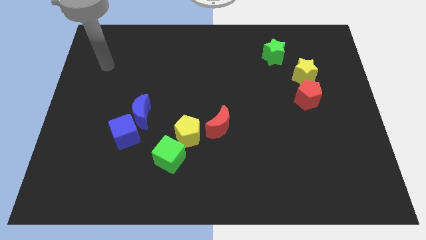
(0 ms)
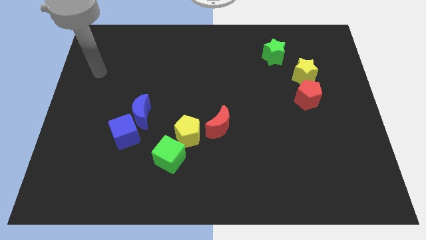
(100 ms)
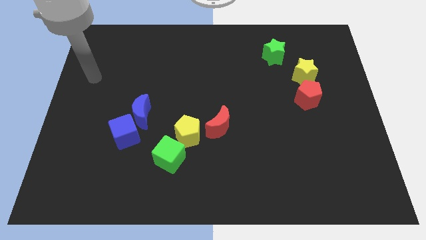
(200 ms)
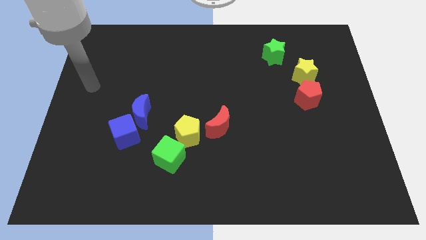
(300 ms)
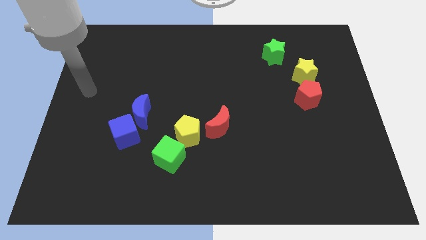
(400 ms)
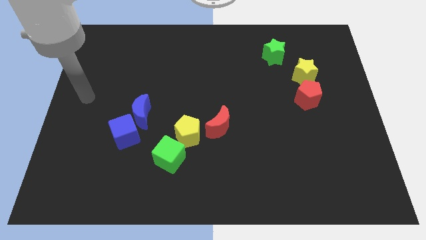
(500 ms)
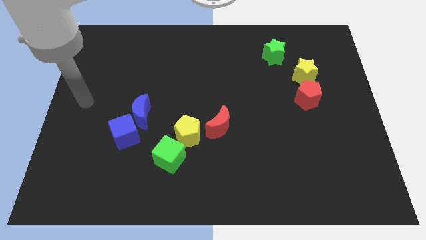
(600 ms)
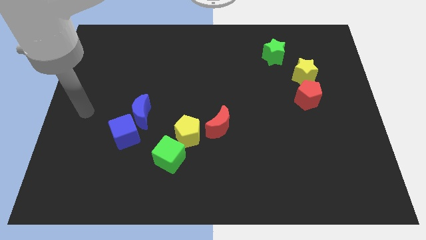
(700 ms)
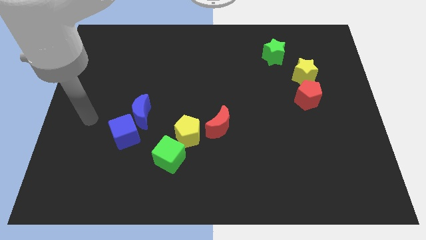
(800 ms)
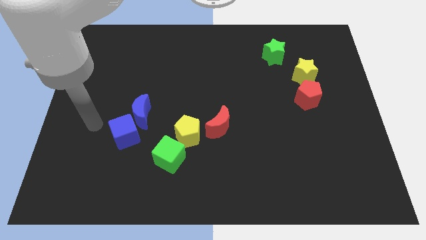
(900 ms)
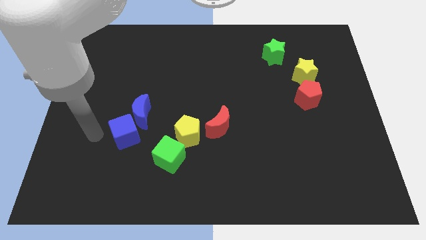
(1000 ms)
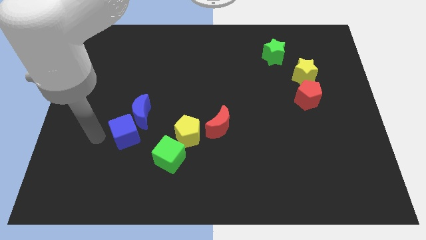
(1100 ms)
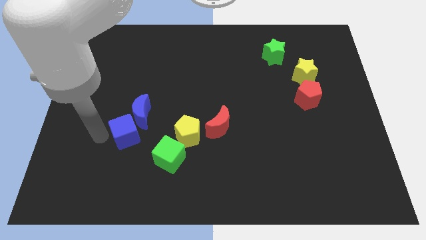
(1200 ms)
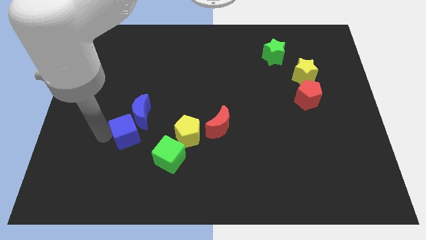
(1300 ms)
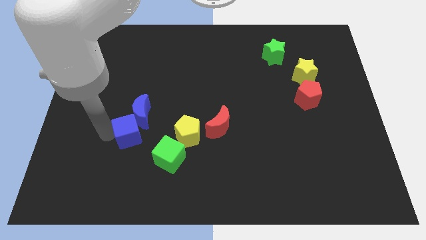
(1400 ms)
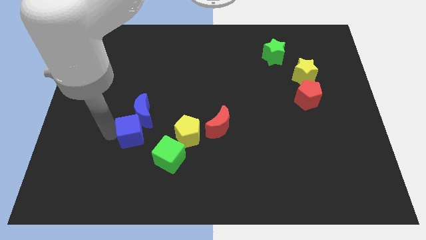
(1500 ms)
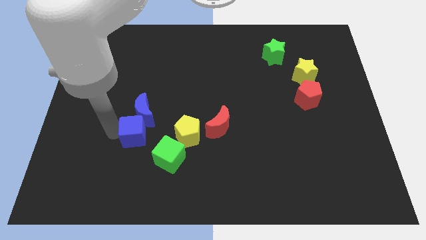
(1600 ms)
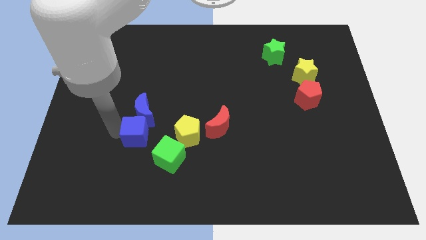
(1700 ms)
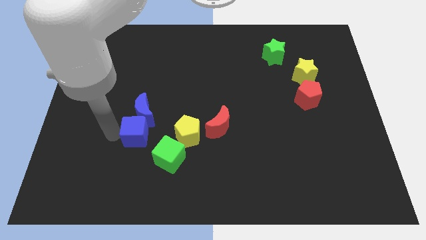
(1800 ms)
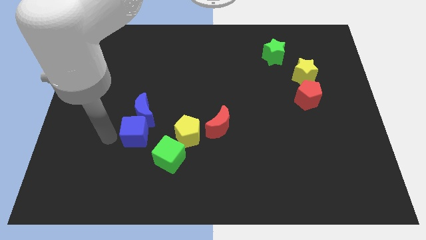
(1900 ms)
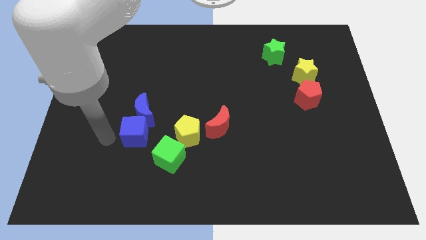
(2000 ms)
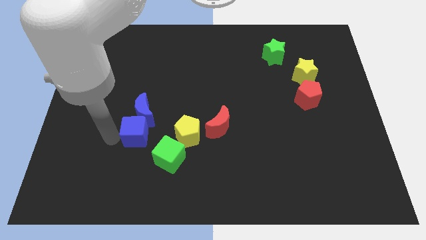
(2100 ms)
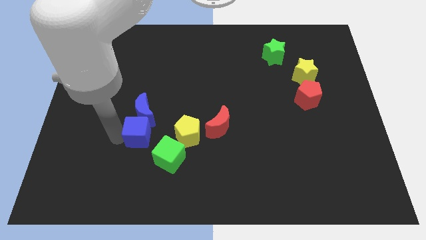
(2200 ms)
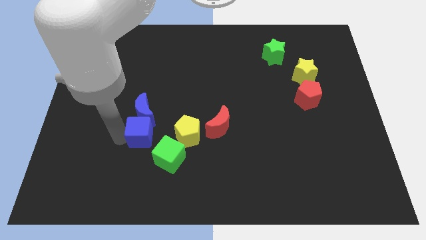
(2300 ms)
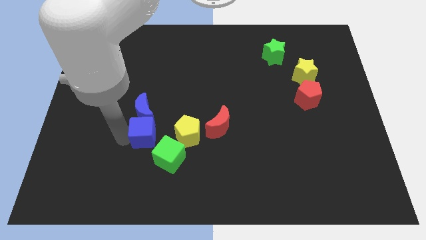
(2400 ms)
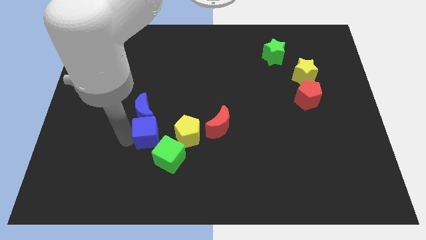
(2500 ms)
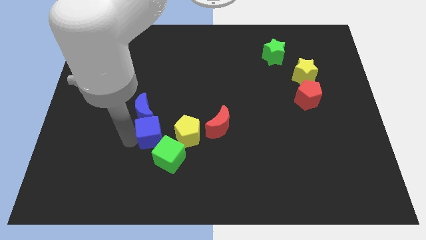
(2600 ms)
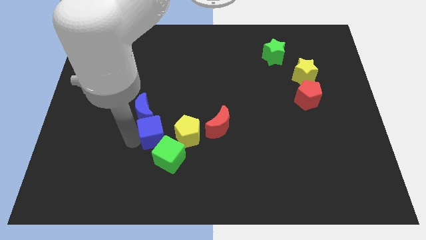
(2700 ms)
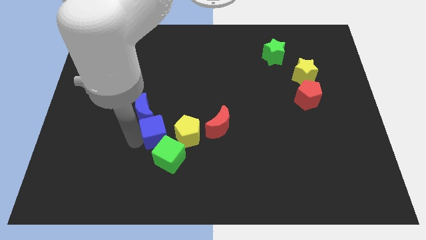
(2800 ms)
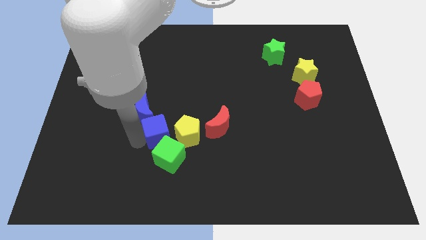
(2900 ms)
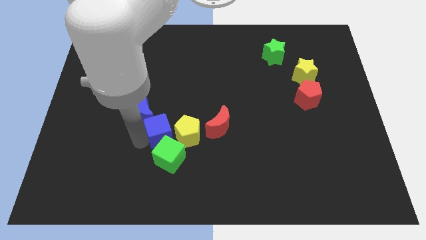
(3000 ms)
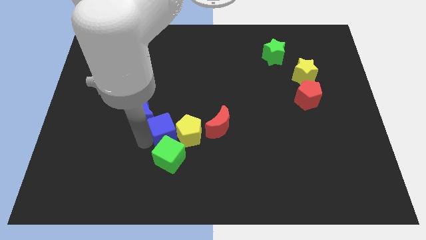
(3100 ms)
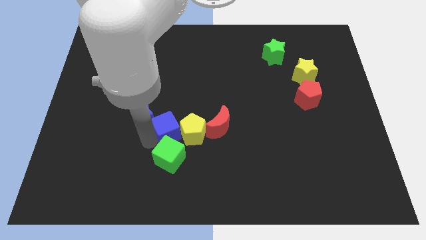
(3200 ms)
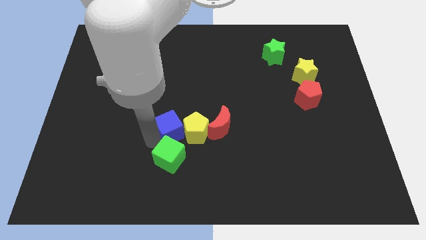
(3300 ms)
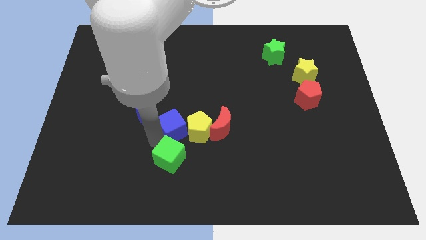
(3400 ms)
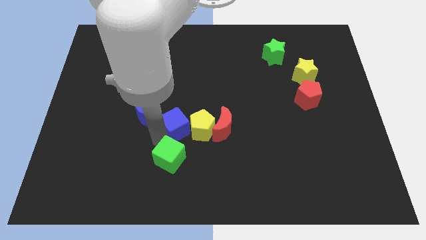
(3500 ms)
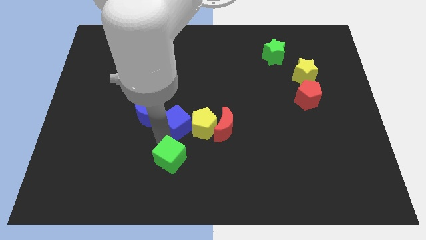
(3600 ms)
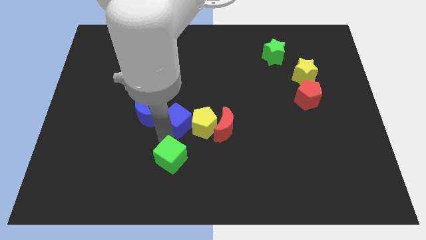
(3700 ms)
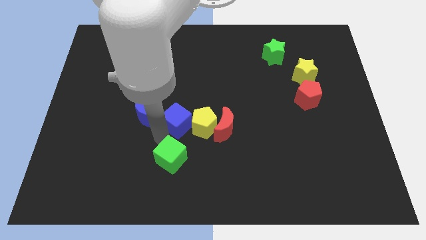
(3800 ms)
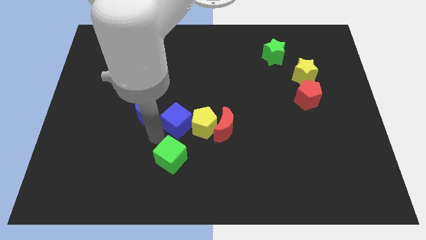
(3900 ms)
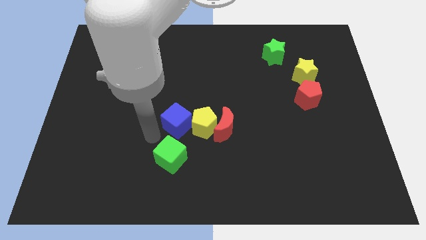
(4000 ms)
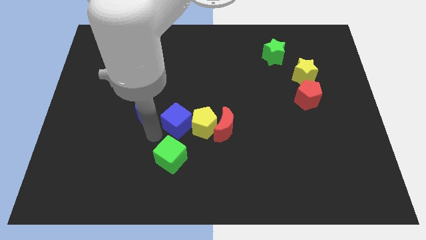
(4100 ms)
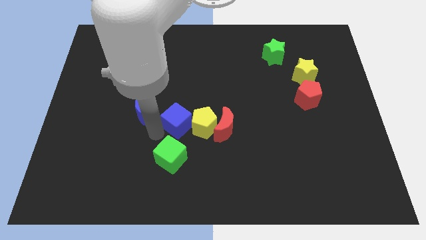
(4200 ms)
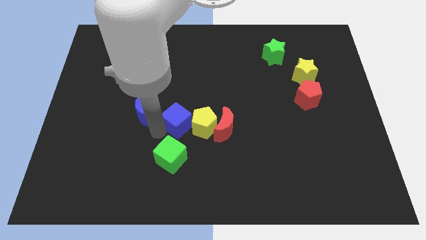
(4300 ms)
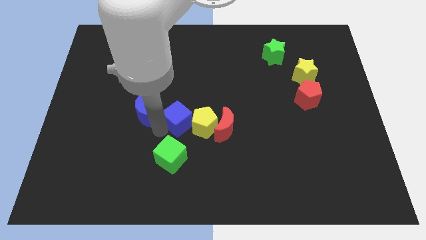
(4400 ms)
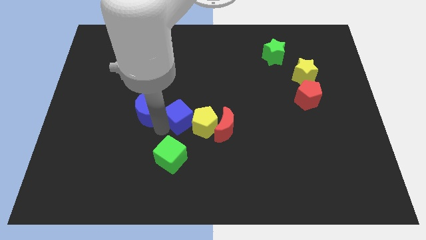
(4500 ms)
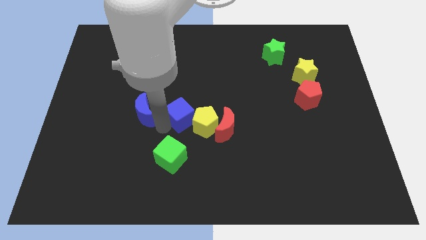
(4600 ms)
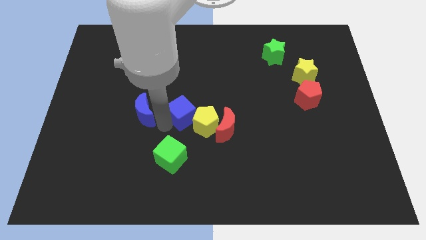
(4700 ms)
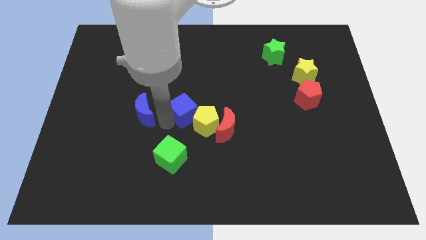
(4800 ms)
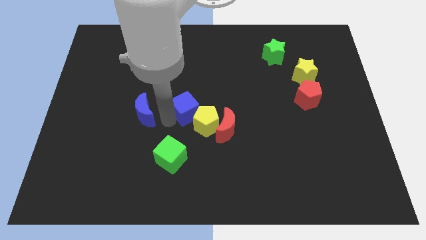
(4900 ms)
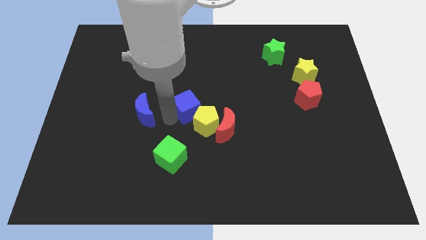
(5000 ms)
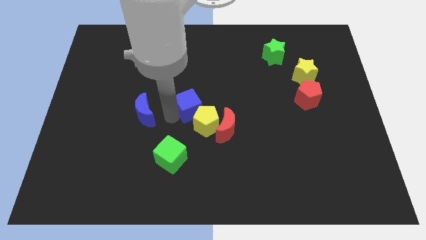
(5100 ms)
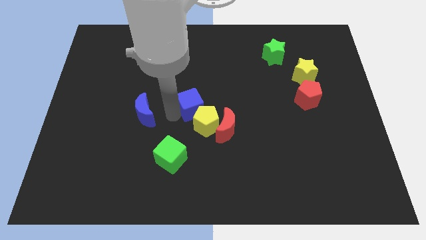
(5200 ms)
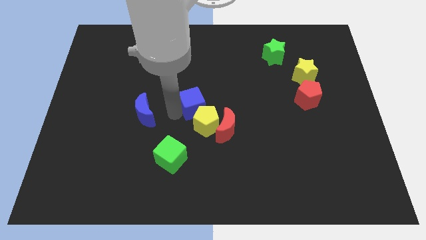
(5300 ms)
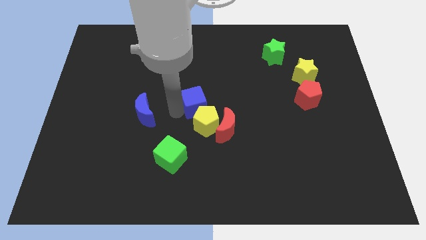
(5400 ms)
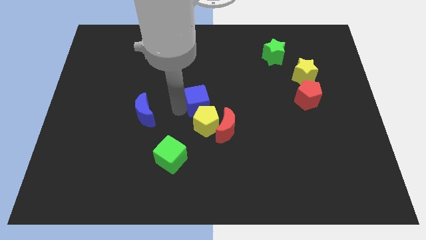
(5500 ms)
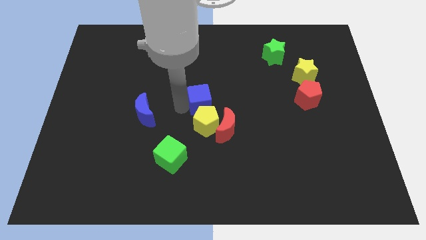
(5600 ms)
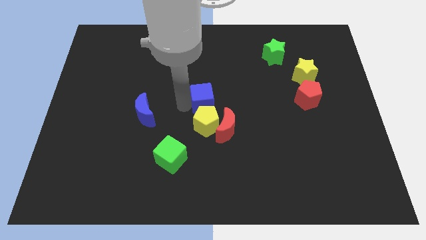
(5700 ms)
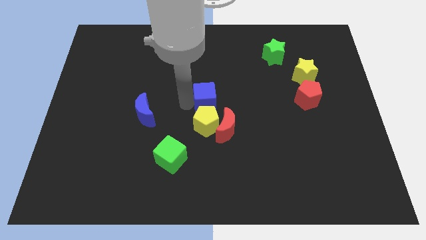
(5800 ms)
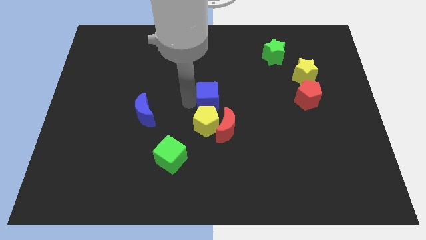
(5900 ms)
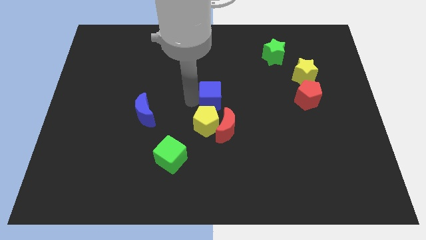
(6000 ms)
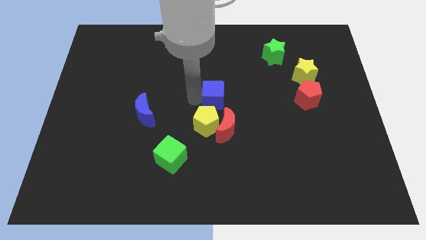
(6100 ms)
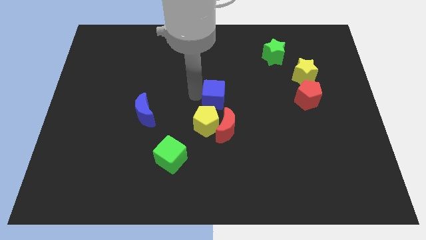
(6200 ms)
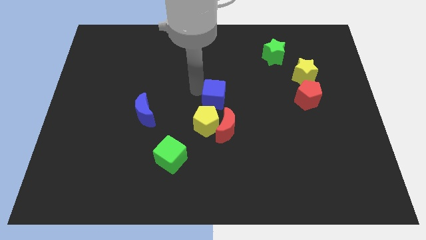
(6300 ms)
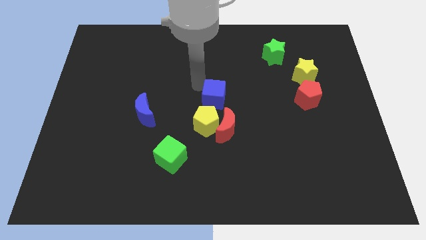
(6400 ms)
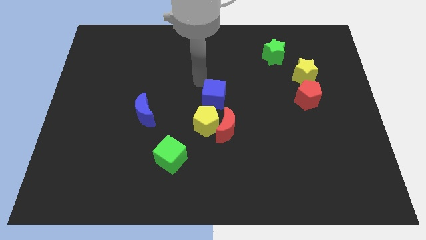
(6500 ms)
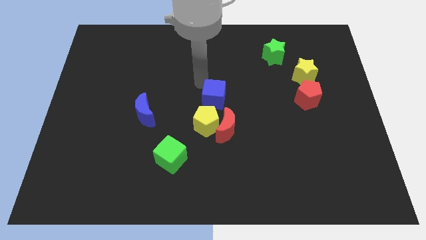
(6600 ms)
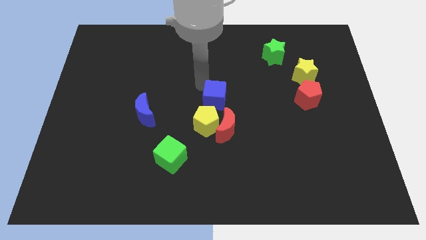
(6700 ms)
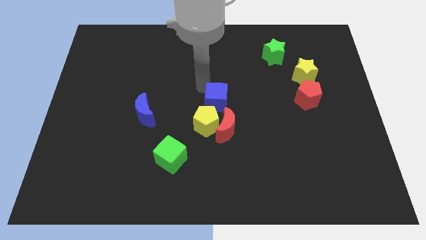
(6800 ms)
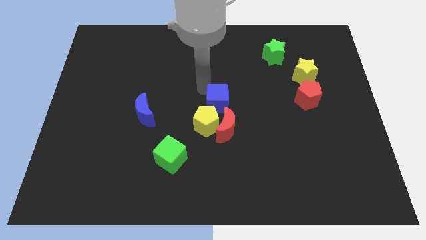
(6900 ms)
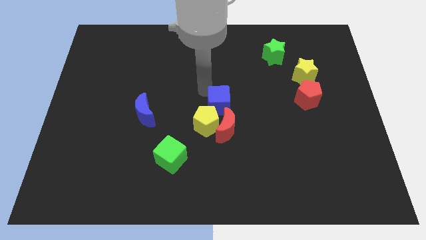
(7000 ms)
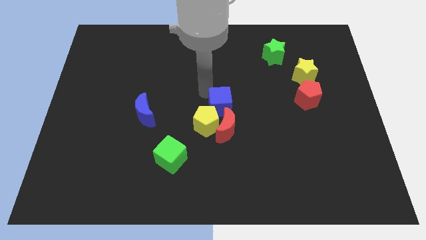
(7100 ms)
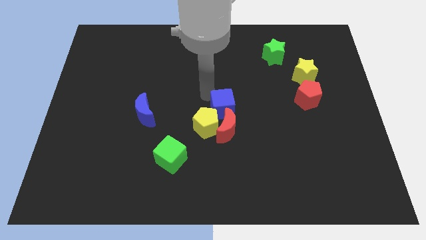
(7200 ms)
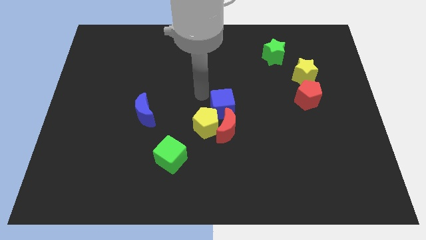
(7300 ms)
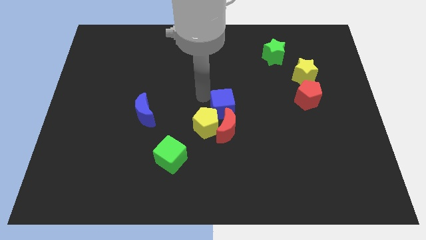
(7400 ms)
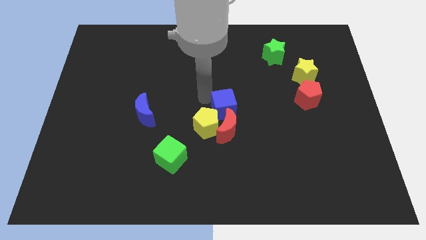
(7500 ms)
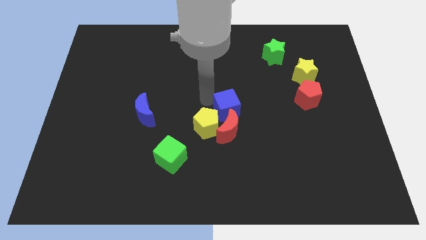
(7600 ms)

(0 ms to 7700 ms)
move the blue cube to the right
